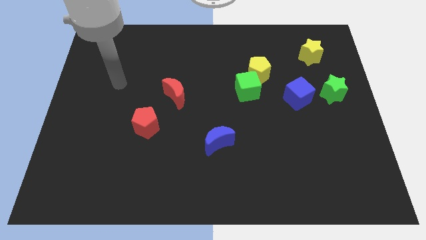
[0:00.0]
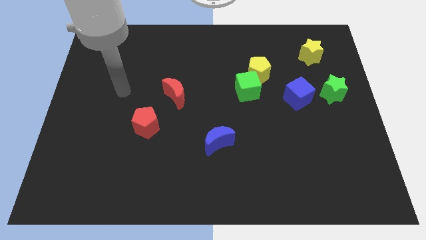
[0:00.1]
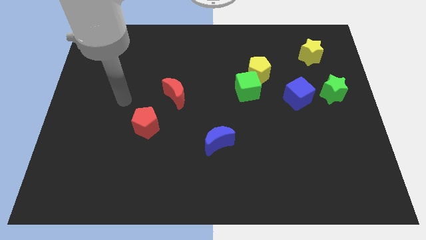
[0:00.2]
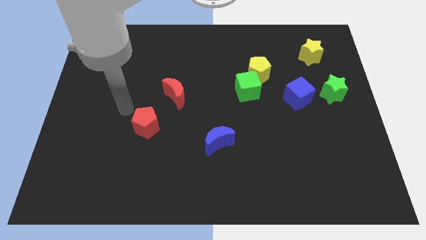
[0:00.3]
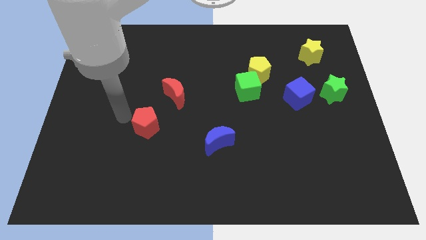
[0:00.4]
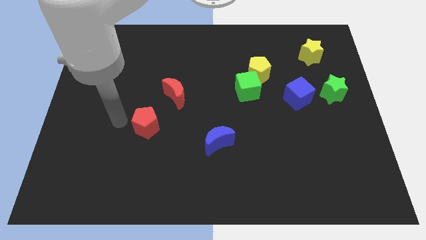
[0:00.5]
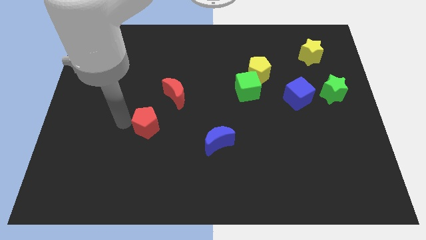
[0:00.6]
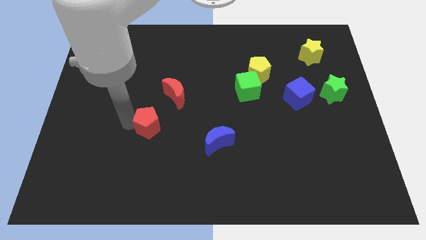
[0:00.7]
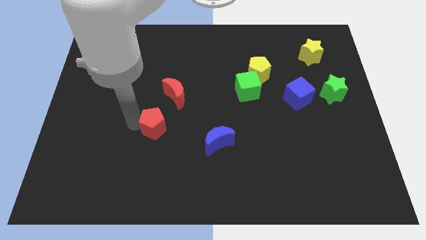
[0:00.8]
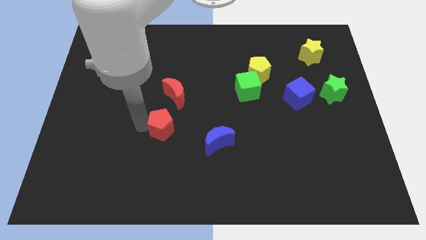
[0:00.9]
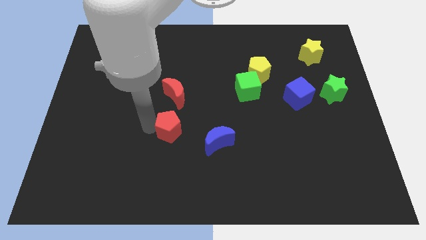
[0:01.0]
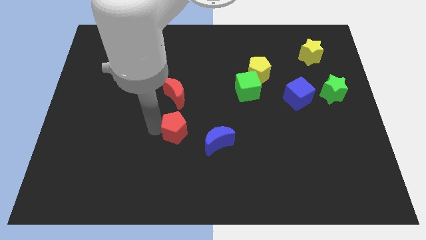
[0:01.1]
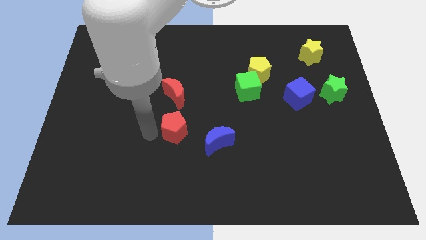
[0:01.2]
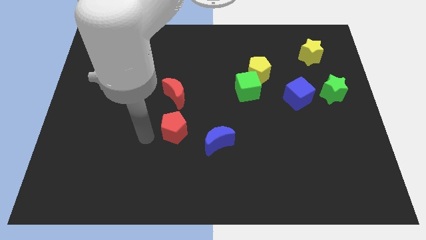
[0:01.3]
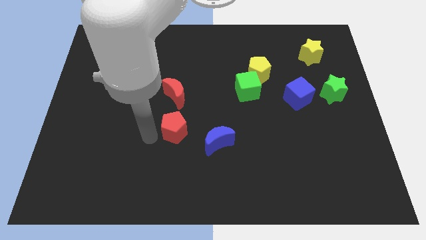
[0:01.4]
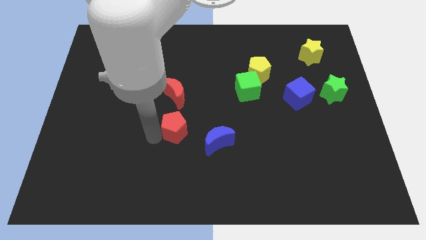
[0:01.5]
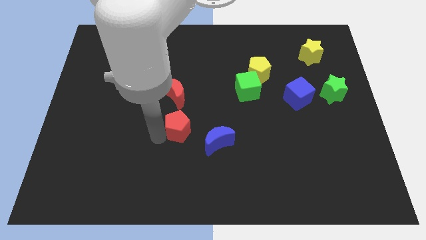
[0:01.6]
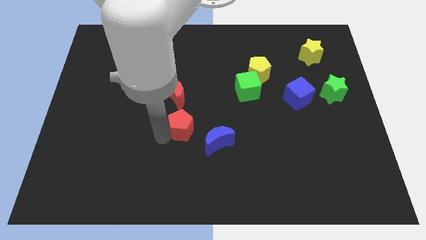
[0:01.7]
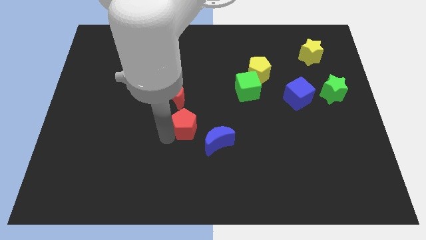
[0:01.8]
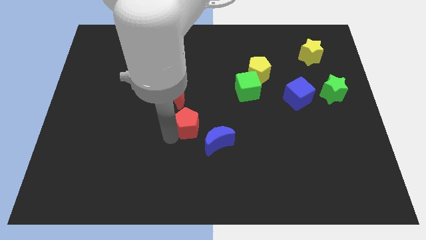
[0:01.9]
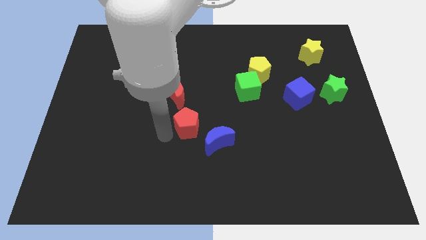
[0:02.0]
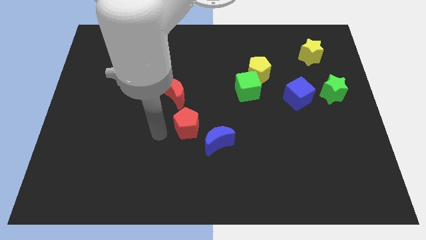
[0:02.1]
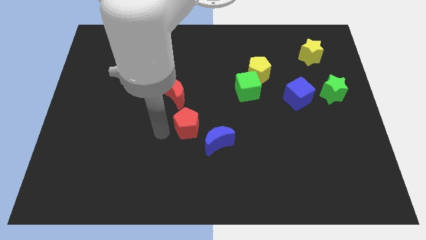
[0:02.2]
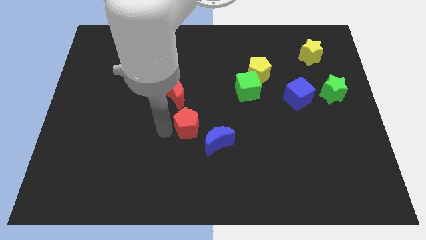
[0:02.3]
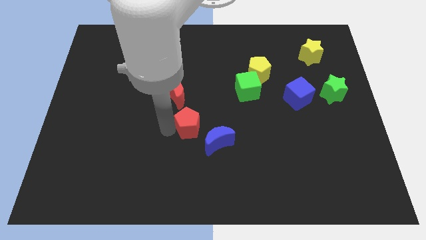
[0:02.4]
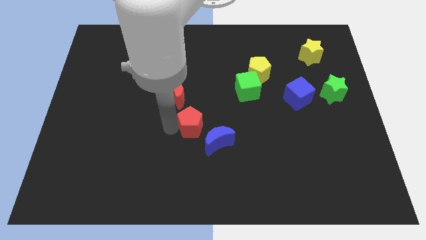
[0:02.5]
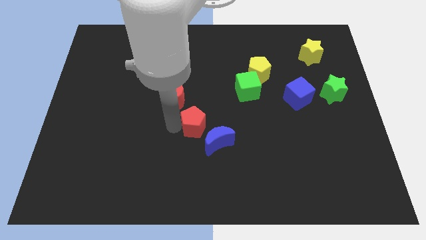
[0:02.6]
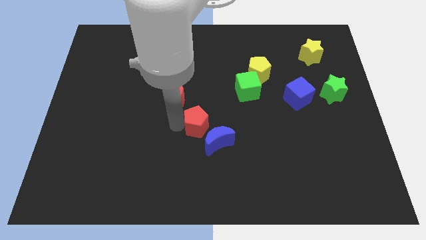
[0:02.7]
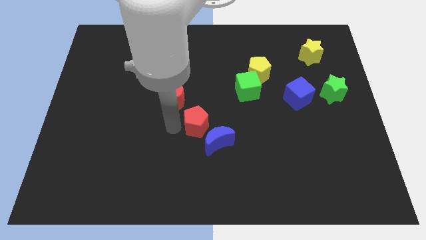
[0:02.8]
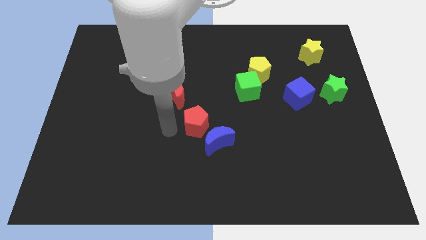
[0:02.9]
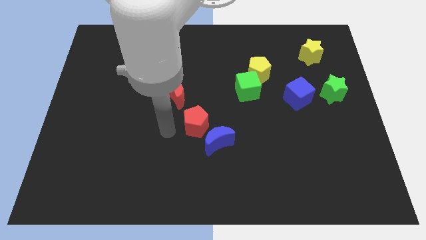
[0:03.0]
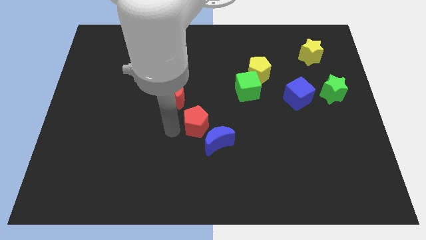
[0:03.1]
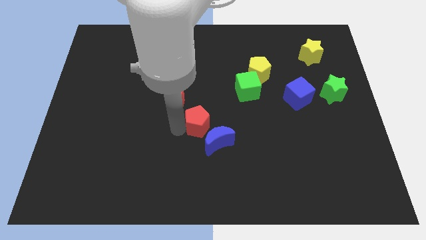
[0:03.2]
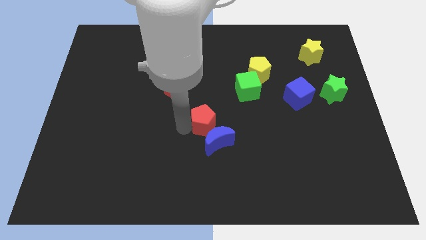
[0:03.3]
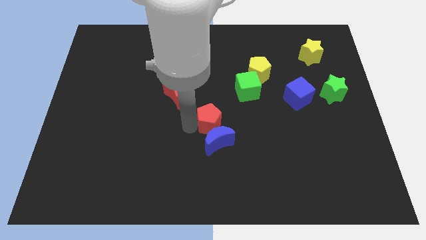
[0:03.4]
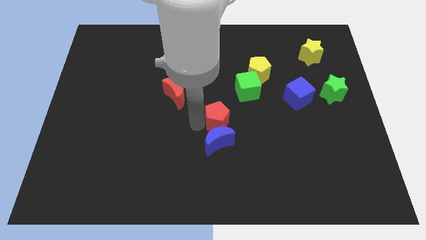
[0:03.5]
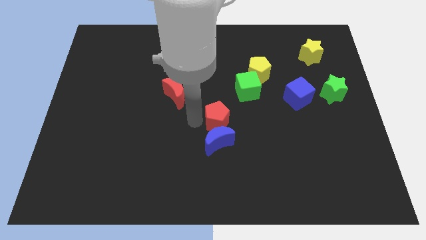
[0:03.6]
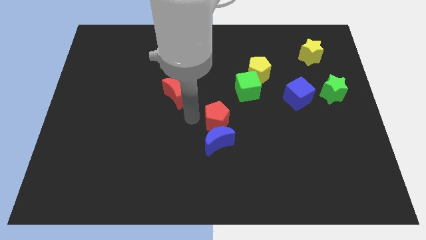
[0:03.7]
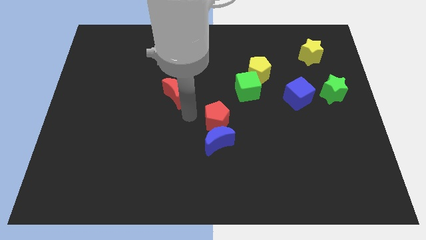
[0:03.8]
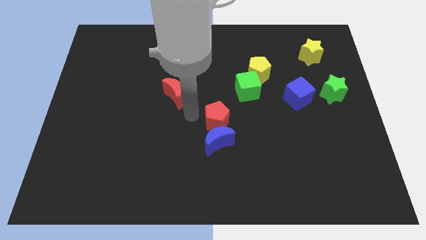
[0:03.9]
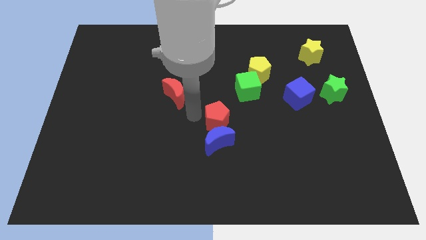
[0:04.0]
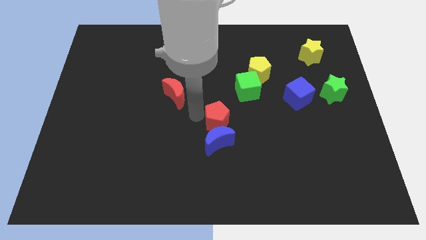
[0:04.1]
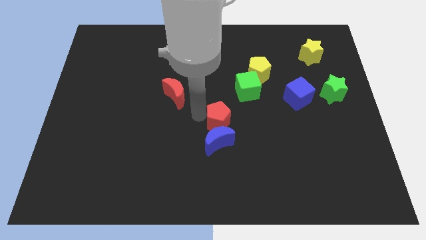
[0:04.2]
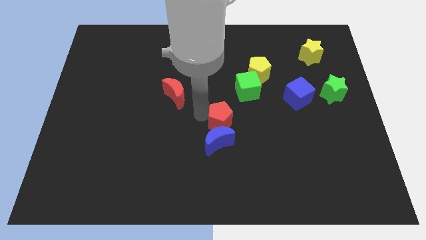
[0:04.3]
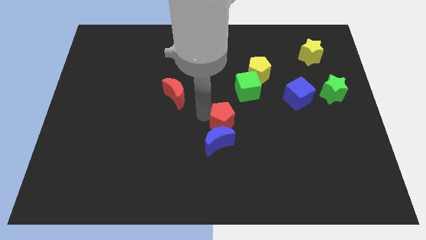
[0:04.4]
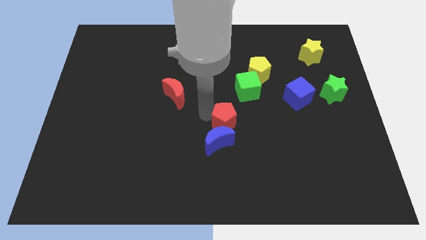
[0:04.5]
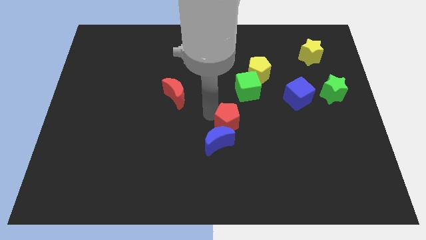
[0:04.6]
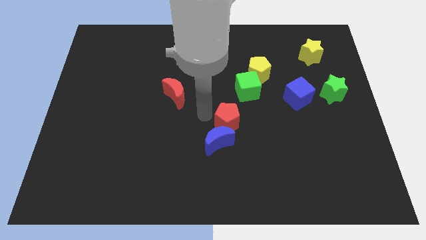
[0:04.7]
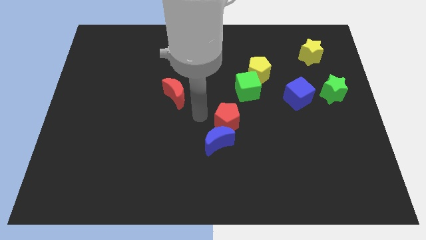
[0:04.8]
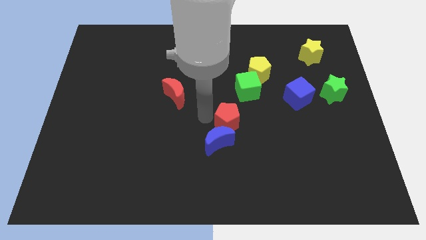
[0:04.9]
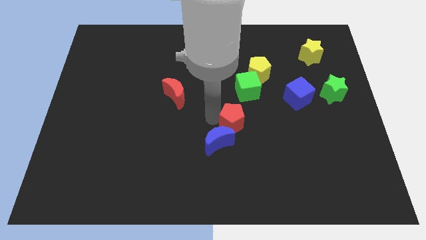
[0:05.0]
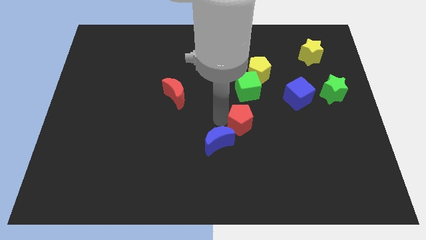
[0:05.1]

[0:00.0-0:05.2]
move the red pentagon right

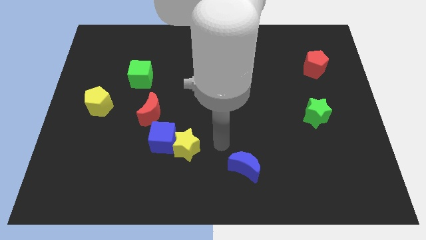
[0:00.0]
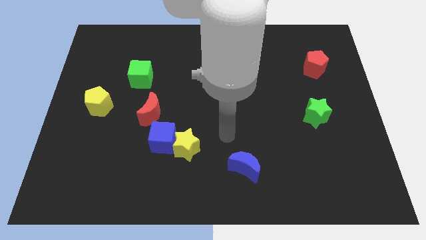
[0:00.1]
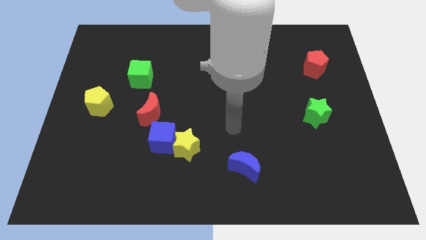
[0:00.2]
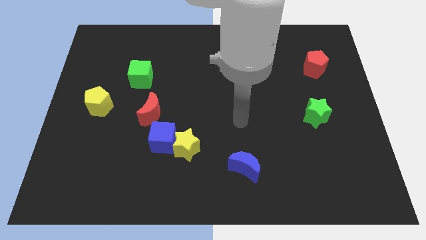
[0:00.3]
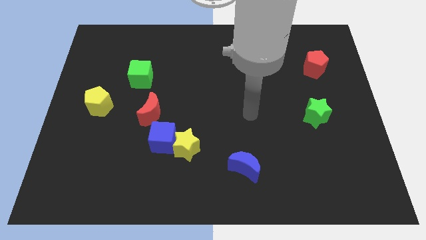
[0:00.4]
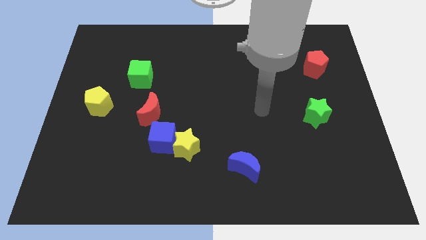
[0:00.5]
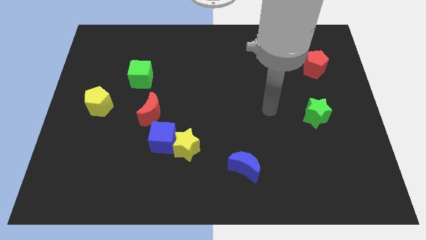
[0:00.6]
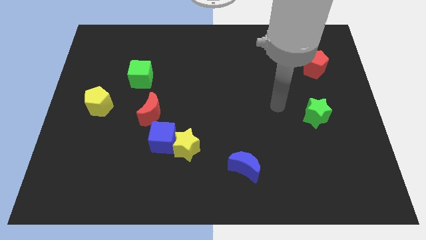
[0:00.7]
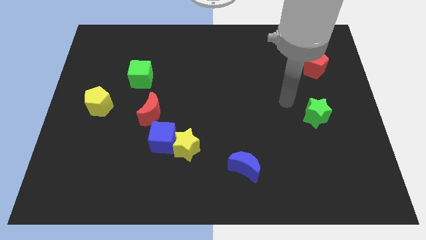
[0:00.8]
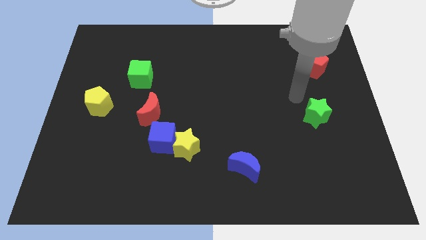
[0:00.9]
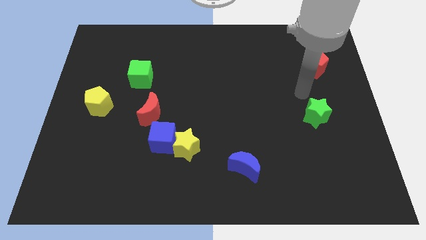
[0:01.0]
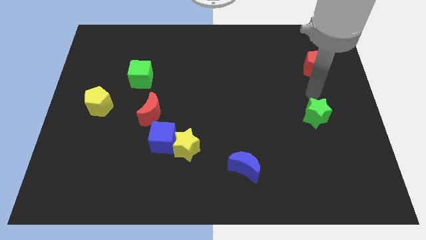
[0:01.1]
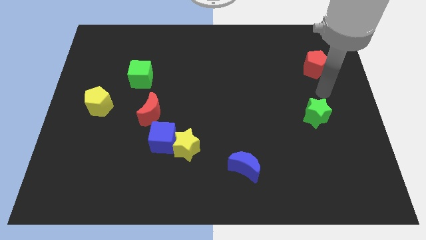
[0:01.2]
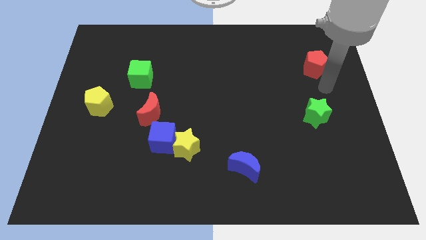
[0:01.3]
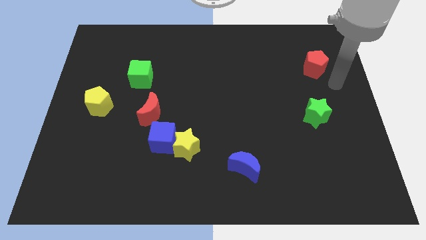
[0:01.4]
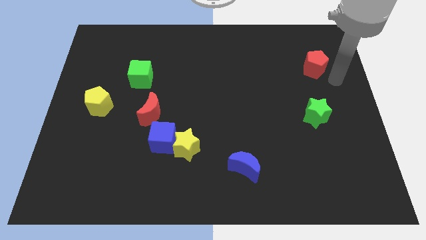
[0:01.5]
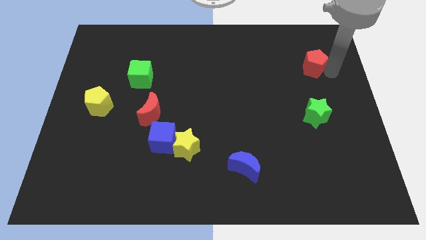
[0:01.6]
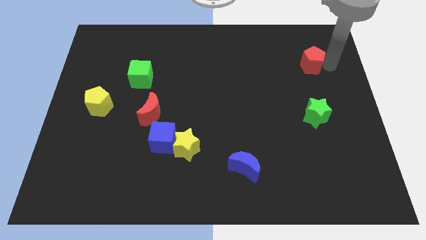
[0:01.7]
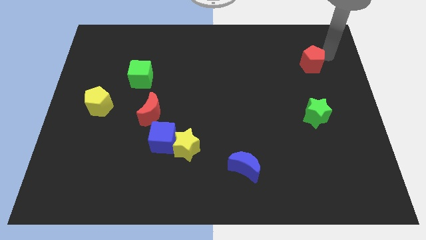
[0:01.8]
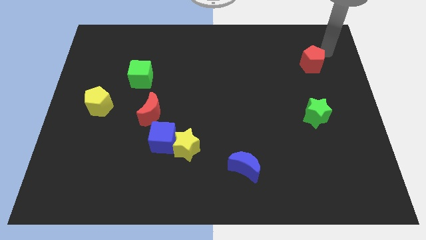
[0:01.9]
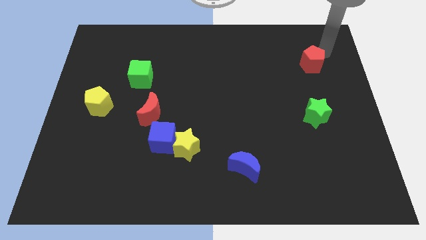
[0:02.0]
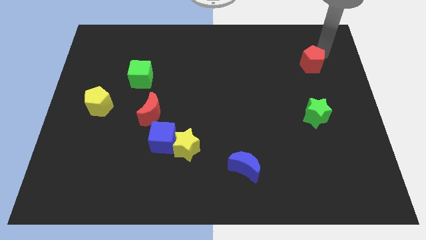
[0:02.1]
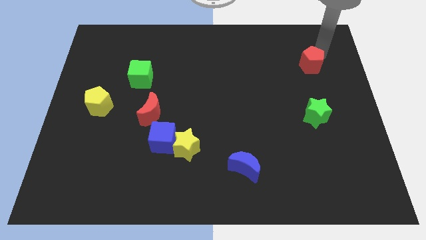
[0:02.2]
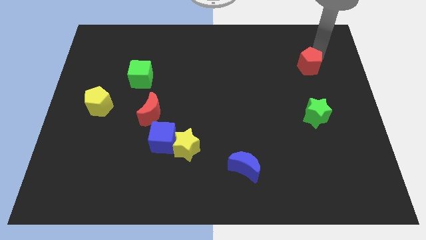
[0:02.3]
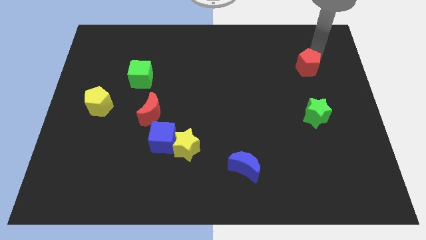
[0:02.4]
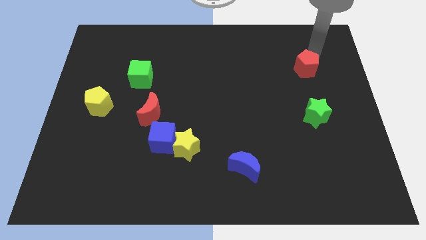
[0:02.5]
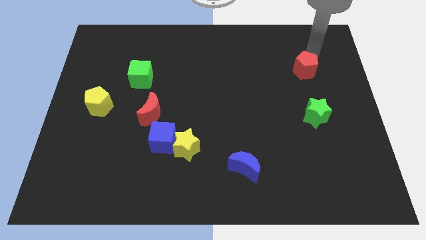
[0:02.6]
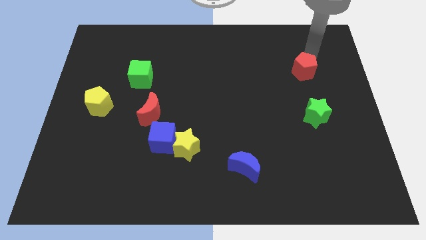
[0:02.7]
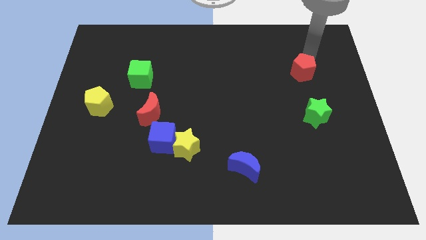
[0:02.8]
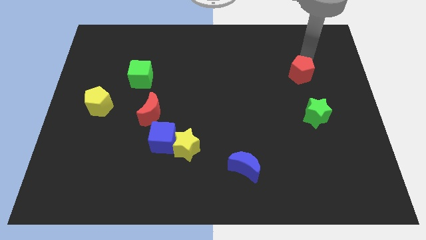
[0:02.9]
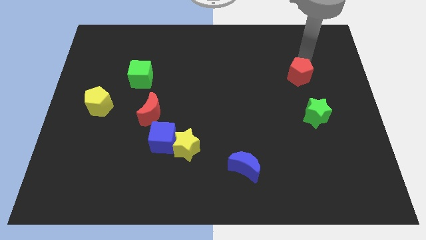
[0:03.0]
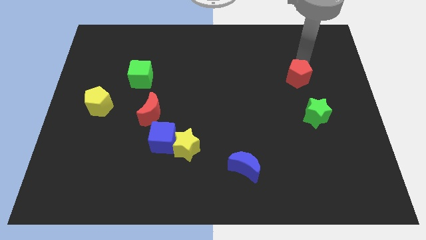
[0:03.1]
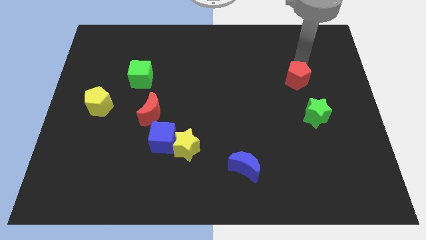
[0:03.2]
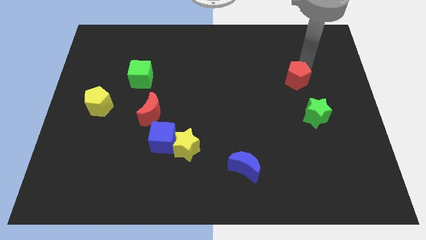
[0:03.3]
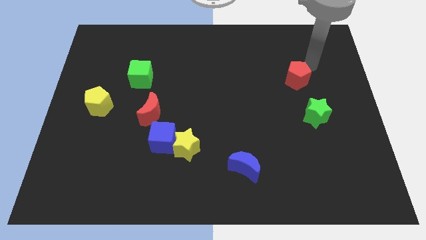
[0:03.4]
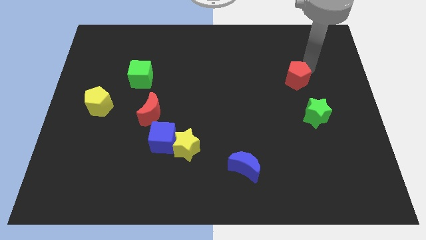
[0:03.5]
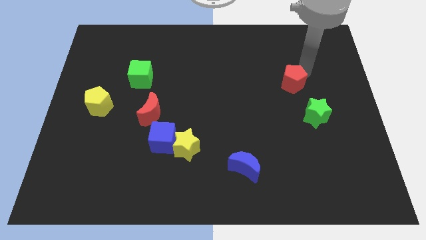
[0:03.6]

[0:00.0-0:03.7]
move the red pentagon slightly diagonally downwards and to the left
